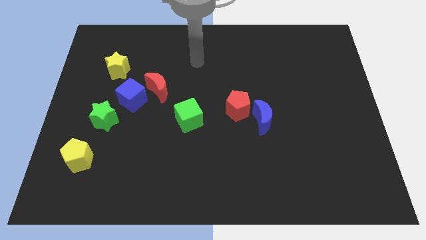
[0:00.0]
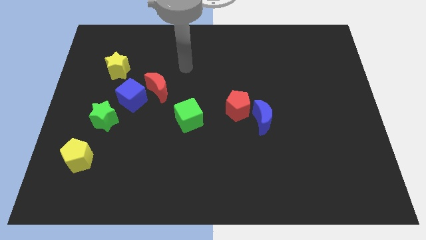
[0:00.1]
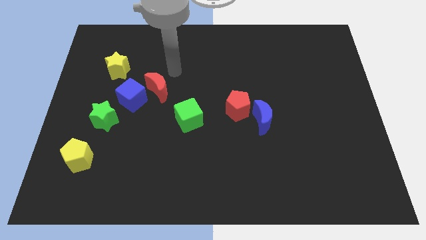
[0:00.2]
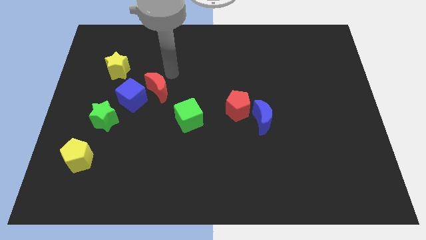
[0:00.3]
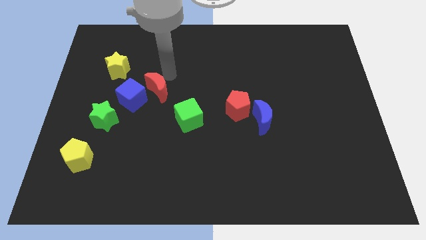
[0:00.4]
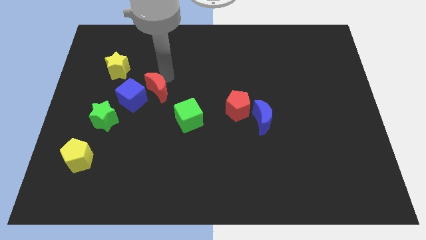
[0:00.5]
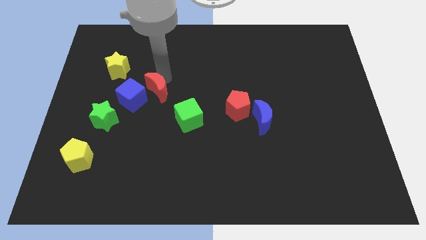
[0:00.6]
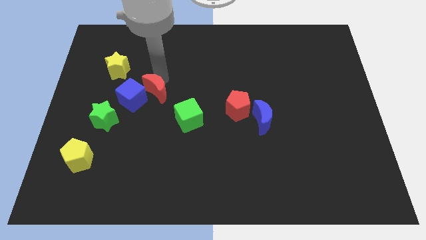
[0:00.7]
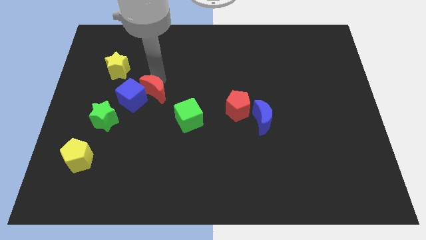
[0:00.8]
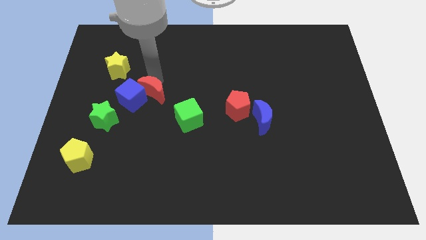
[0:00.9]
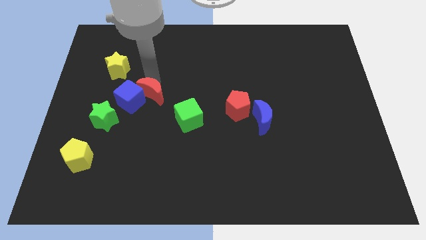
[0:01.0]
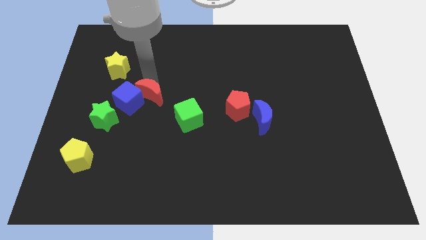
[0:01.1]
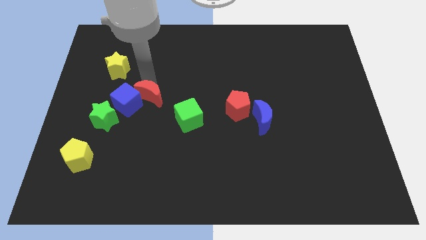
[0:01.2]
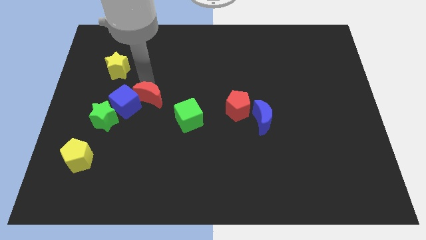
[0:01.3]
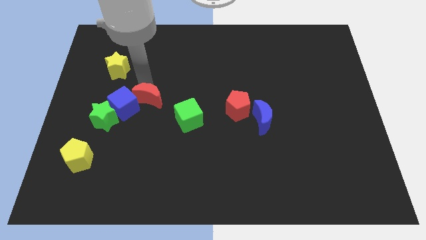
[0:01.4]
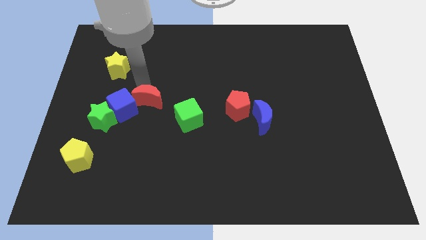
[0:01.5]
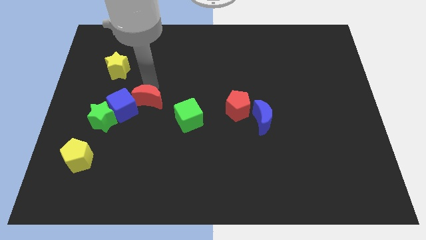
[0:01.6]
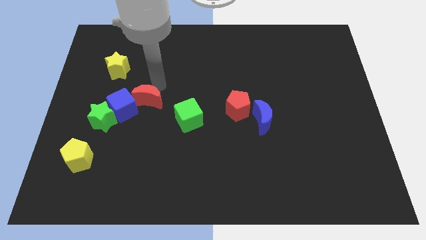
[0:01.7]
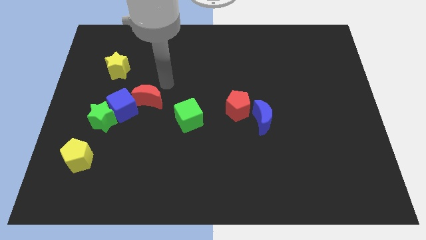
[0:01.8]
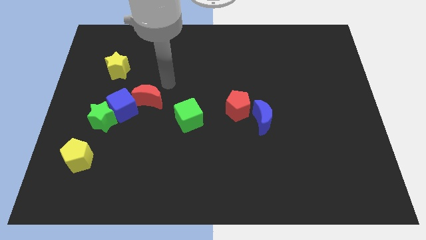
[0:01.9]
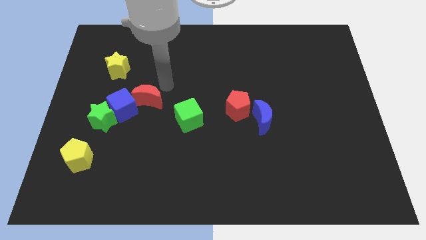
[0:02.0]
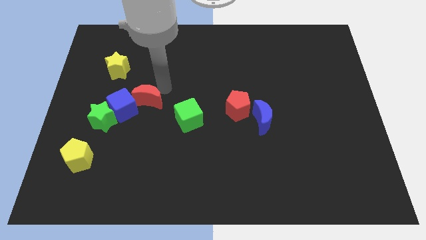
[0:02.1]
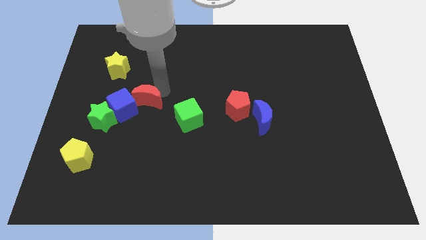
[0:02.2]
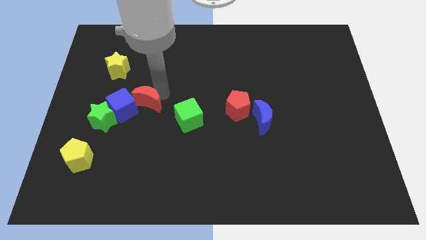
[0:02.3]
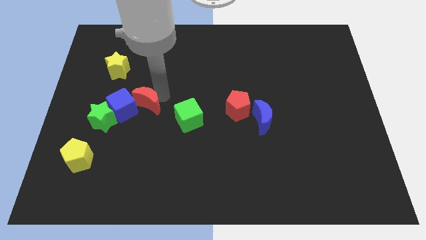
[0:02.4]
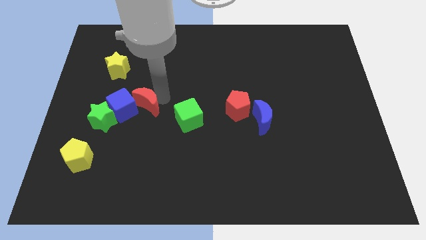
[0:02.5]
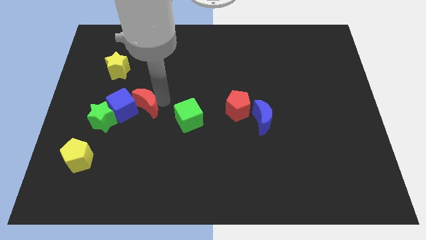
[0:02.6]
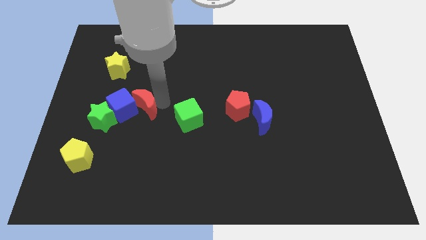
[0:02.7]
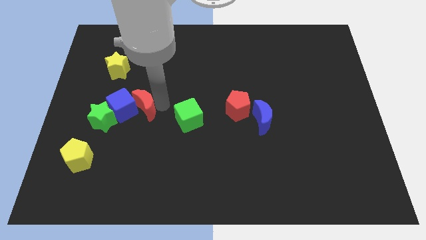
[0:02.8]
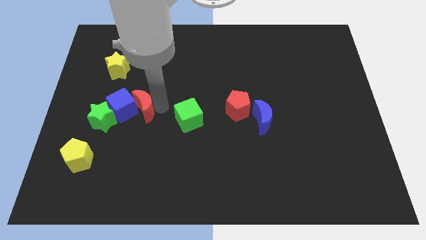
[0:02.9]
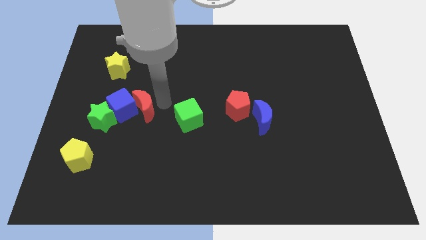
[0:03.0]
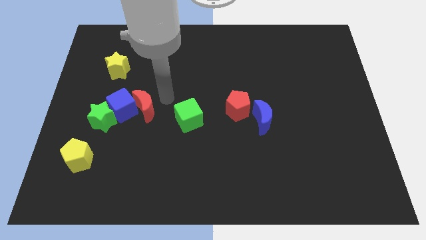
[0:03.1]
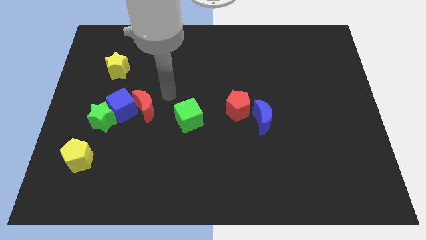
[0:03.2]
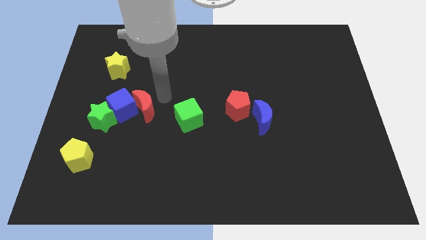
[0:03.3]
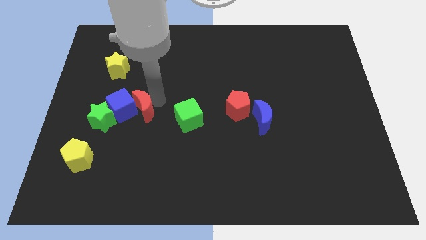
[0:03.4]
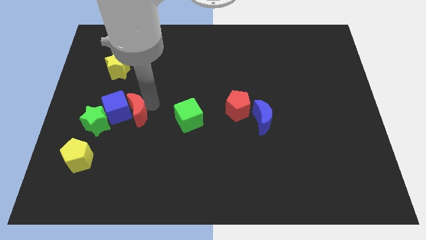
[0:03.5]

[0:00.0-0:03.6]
slightly push the red moon downwards and left

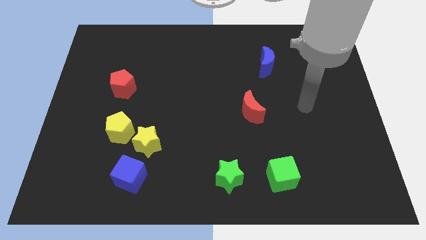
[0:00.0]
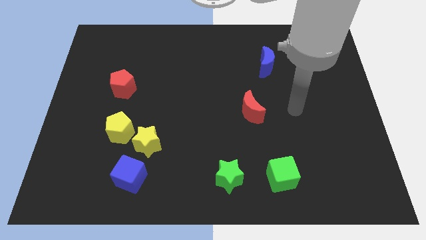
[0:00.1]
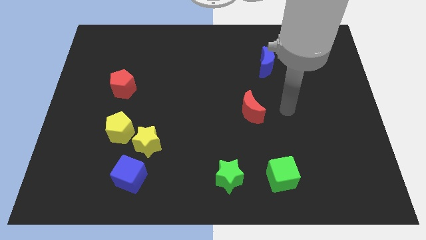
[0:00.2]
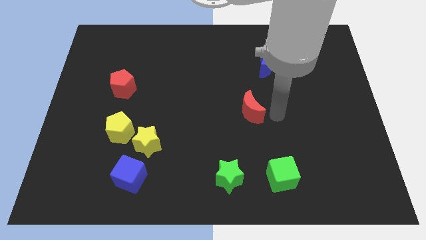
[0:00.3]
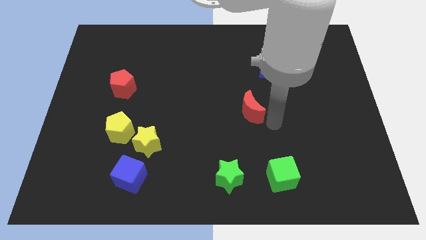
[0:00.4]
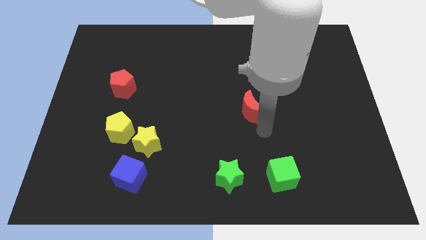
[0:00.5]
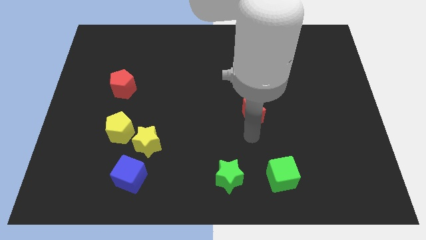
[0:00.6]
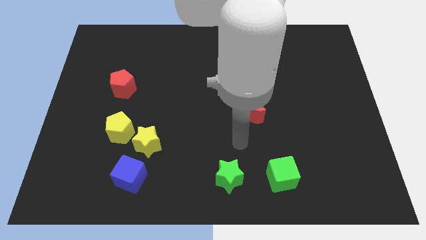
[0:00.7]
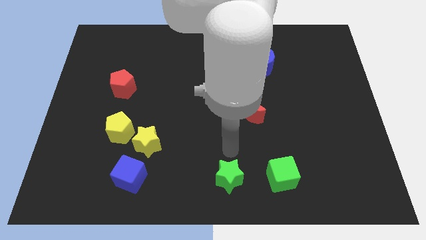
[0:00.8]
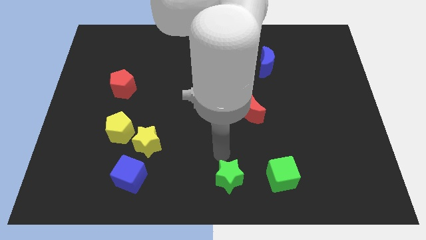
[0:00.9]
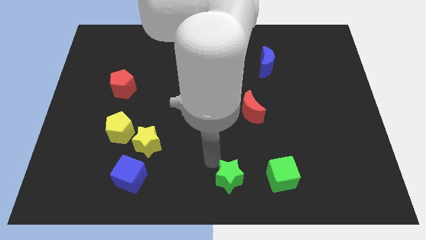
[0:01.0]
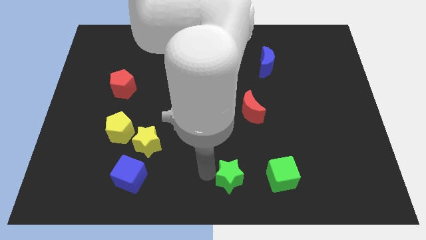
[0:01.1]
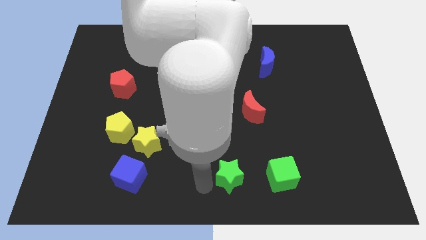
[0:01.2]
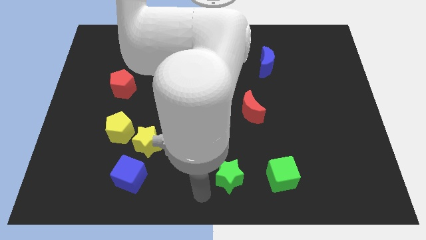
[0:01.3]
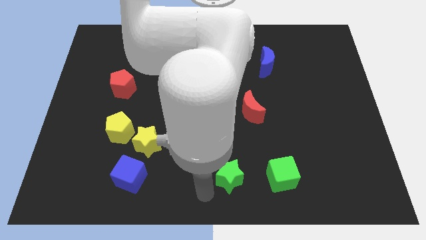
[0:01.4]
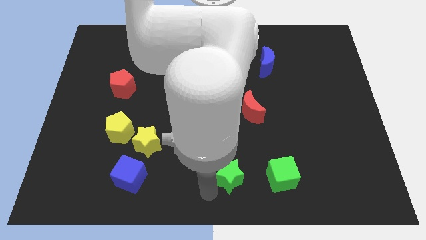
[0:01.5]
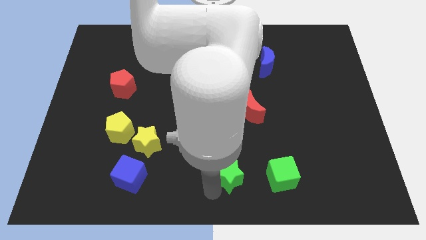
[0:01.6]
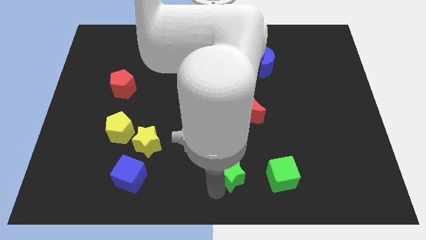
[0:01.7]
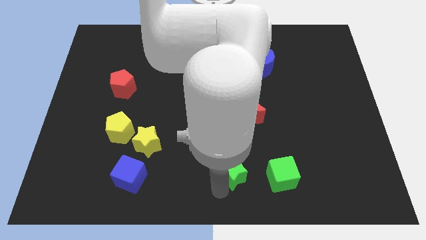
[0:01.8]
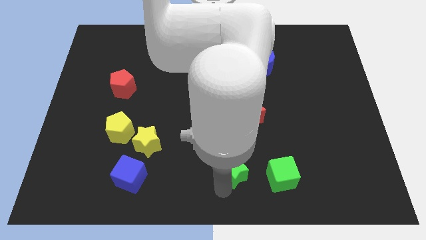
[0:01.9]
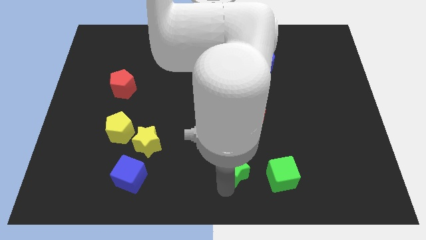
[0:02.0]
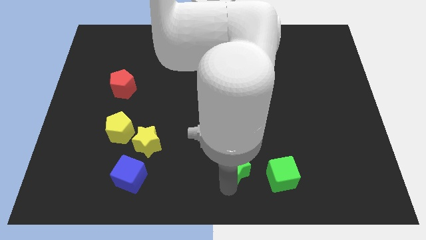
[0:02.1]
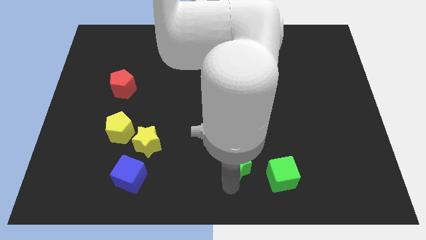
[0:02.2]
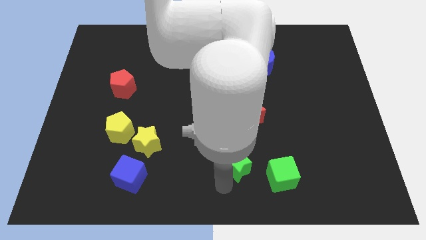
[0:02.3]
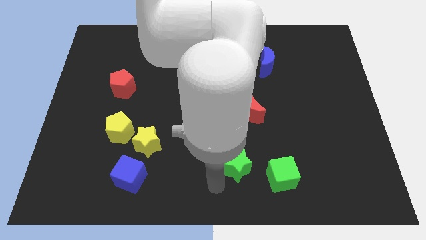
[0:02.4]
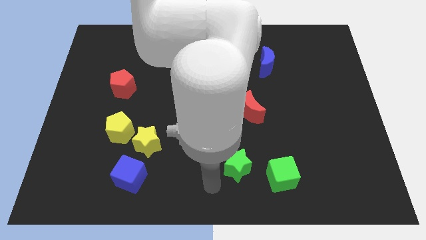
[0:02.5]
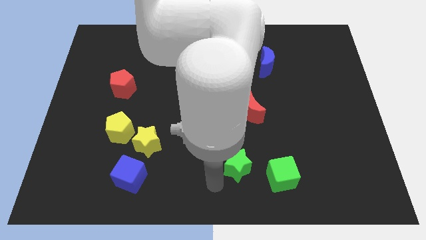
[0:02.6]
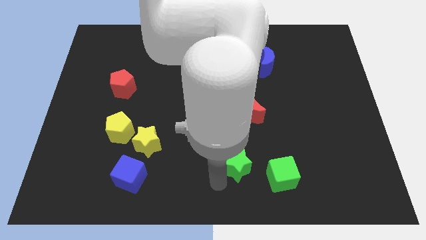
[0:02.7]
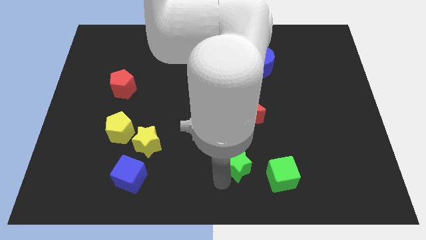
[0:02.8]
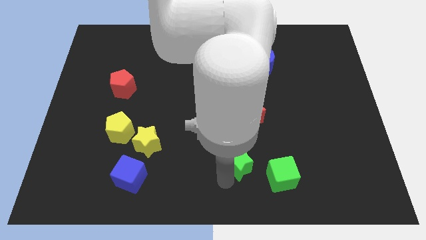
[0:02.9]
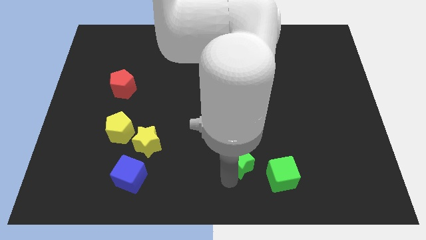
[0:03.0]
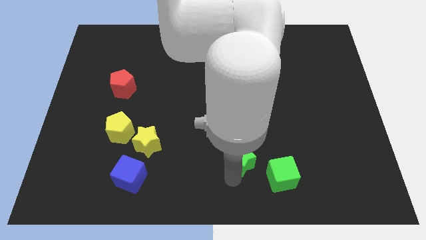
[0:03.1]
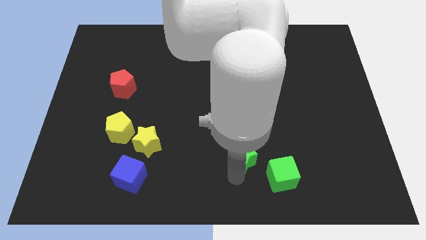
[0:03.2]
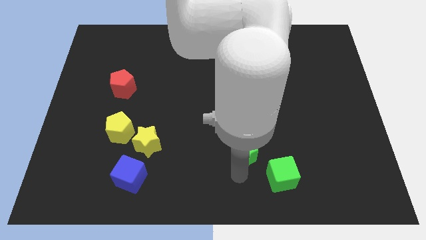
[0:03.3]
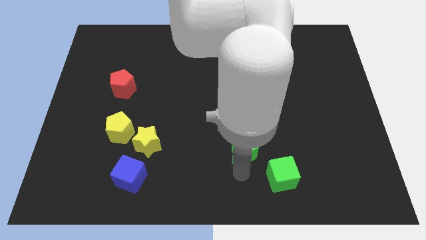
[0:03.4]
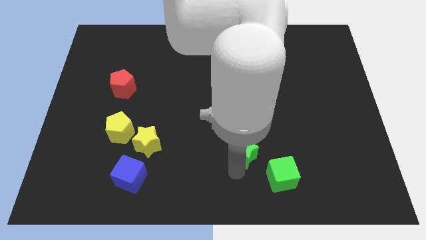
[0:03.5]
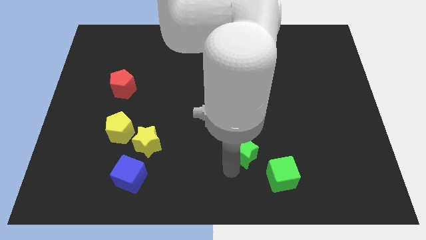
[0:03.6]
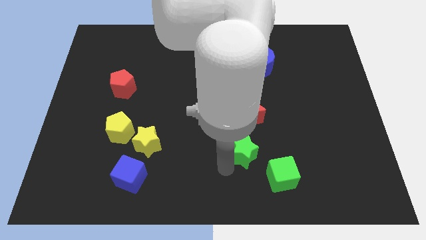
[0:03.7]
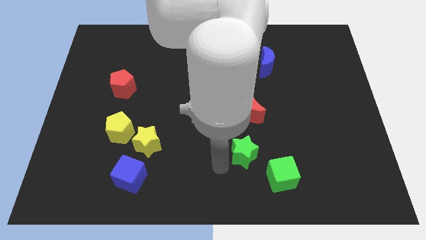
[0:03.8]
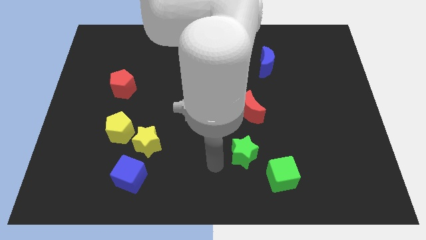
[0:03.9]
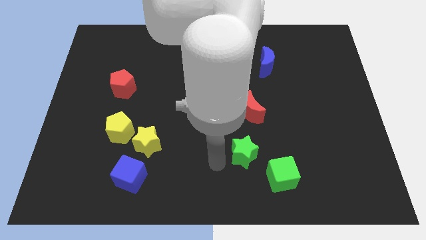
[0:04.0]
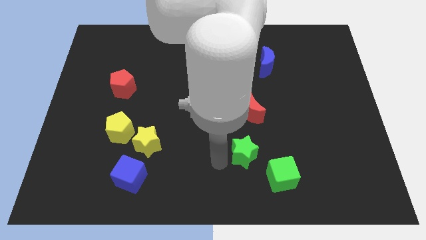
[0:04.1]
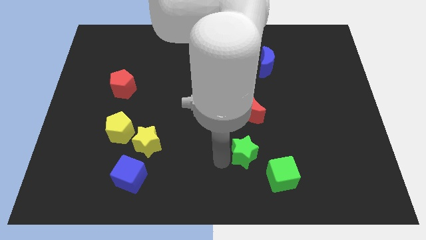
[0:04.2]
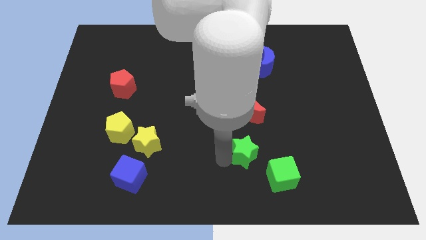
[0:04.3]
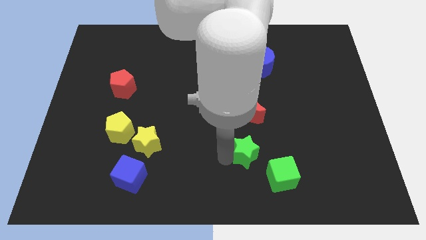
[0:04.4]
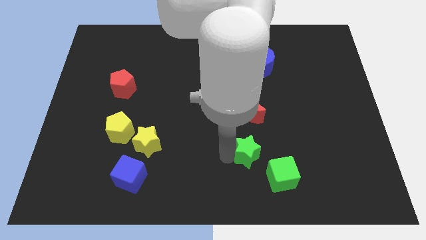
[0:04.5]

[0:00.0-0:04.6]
move the green star up and to the right a little bit
